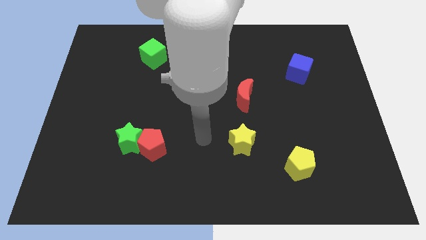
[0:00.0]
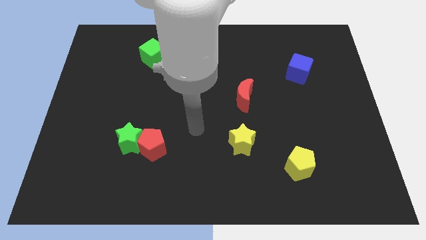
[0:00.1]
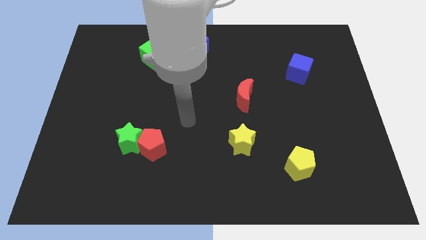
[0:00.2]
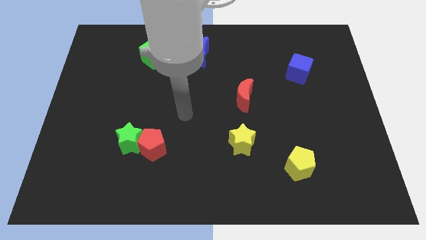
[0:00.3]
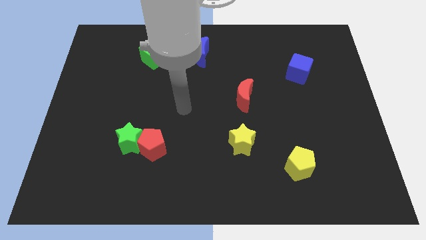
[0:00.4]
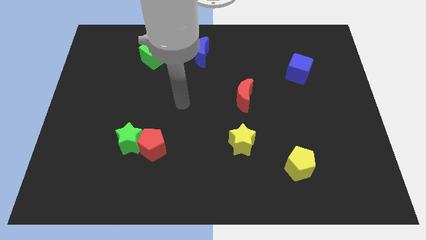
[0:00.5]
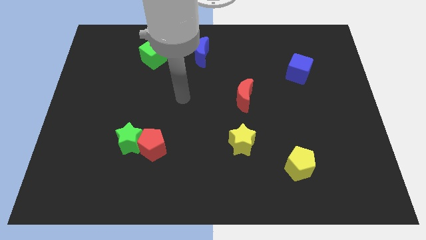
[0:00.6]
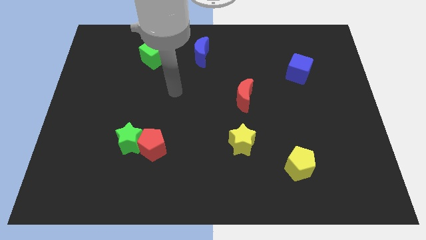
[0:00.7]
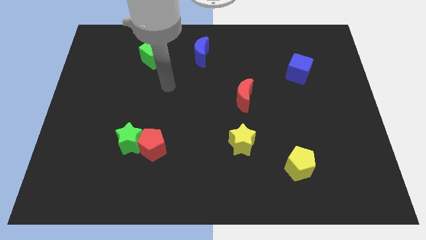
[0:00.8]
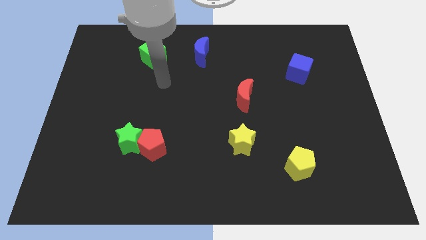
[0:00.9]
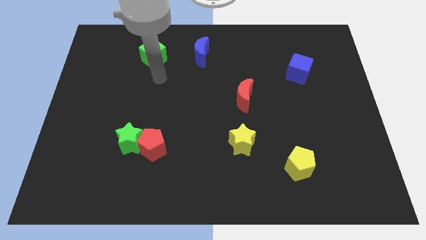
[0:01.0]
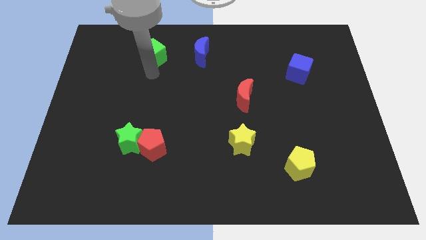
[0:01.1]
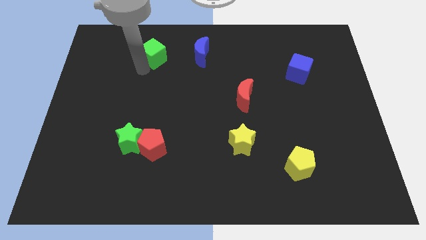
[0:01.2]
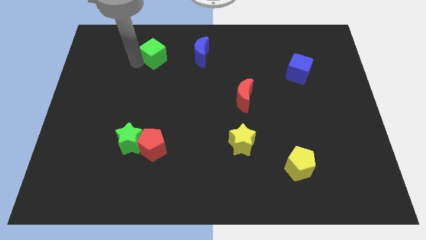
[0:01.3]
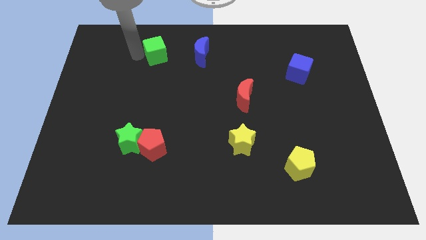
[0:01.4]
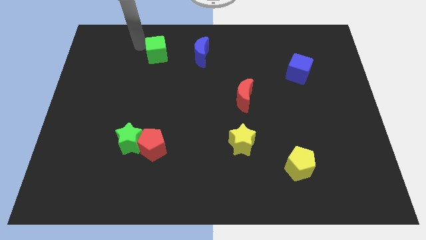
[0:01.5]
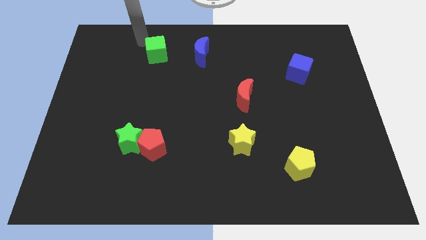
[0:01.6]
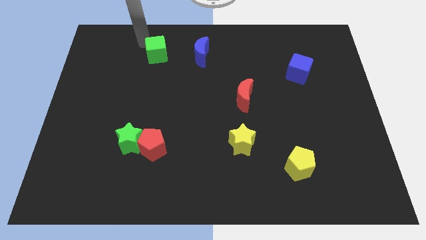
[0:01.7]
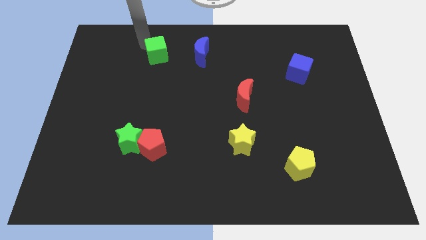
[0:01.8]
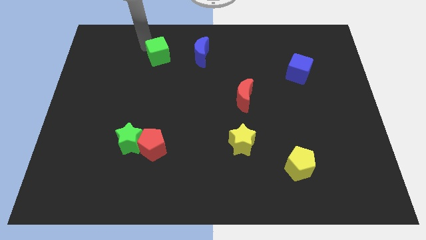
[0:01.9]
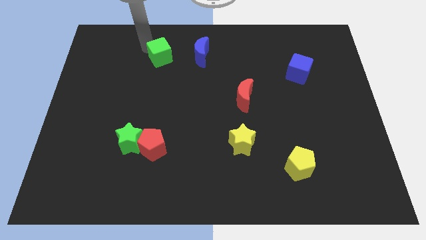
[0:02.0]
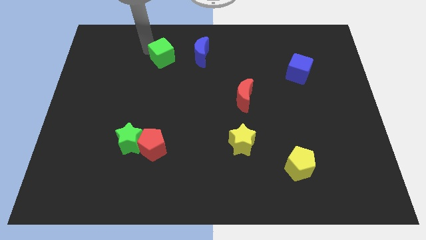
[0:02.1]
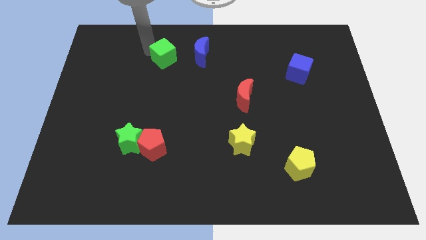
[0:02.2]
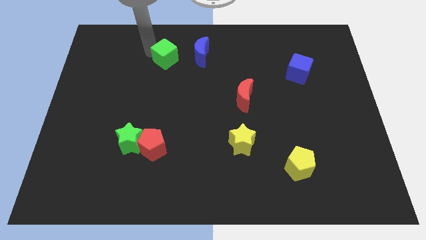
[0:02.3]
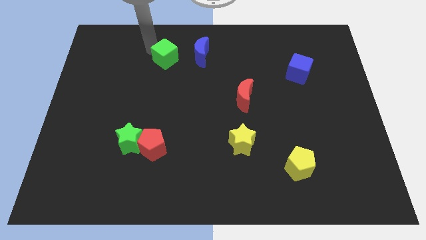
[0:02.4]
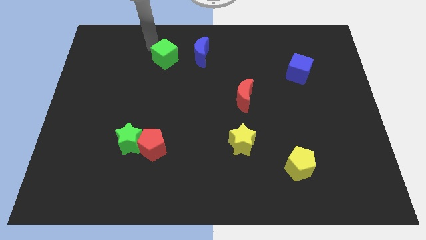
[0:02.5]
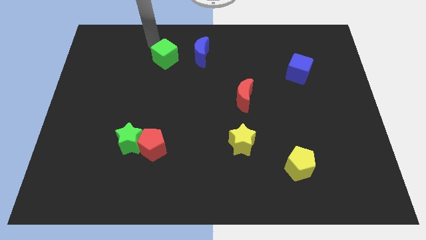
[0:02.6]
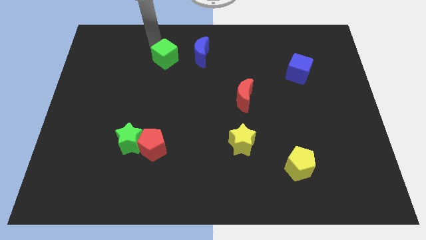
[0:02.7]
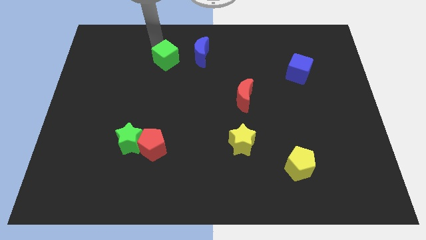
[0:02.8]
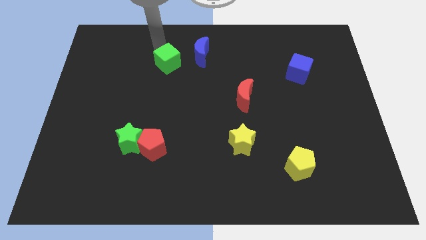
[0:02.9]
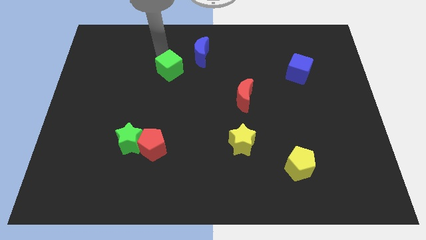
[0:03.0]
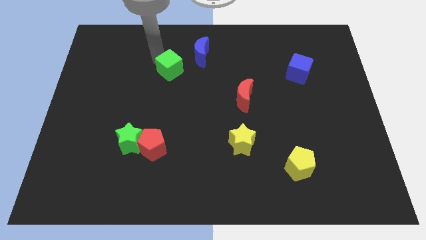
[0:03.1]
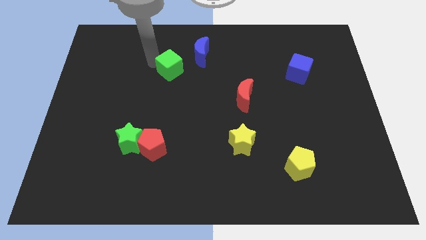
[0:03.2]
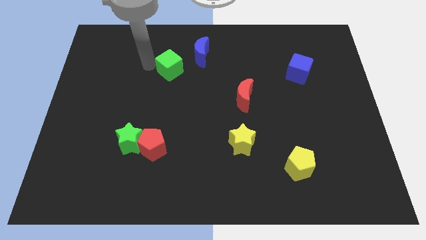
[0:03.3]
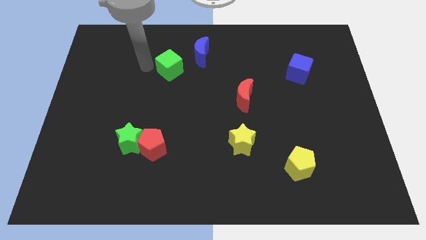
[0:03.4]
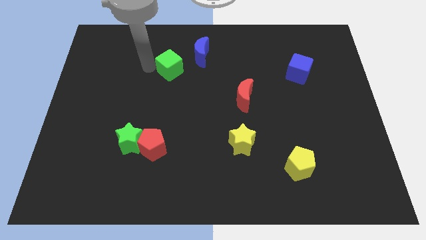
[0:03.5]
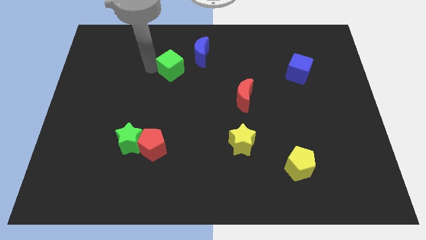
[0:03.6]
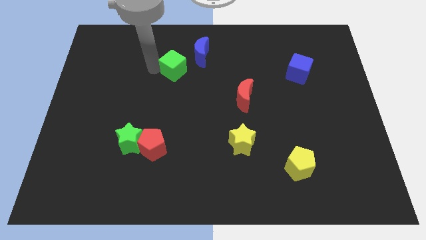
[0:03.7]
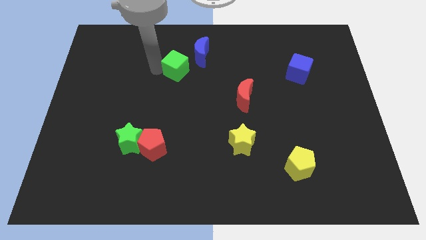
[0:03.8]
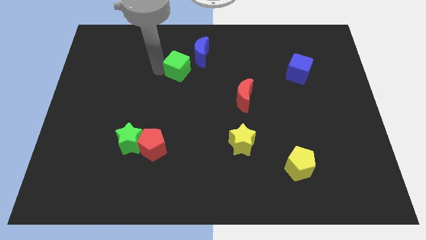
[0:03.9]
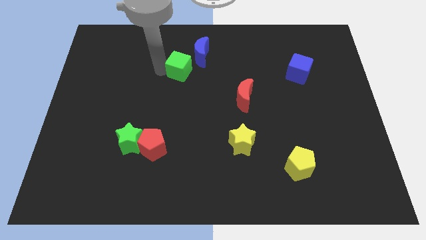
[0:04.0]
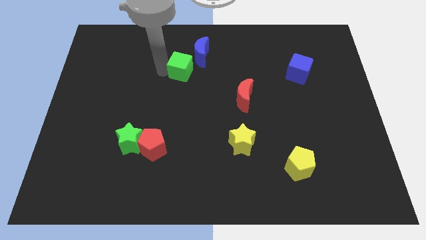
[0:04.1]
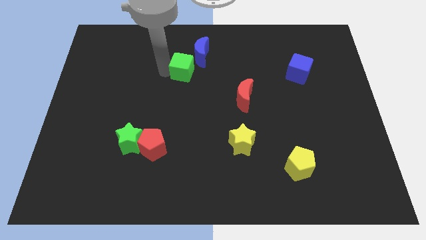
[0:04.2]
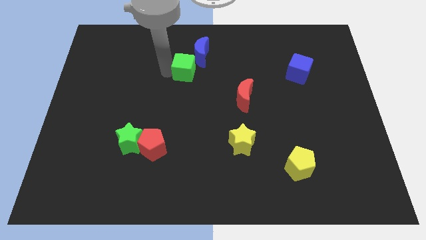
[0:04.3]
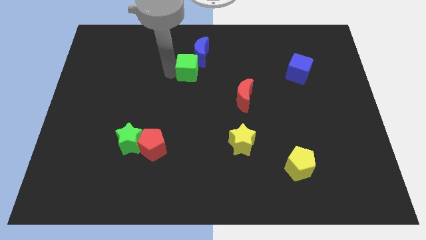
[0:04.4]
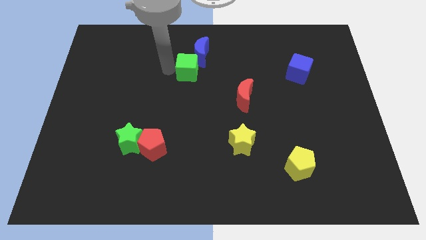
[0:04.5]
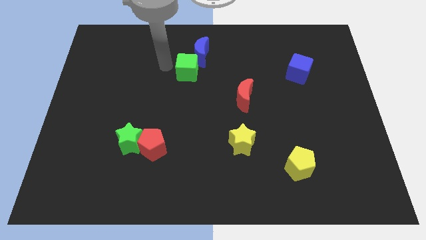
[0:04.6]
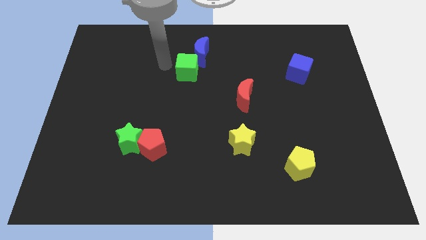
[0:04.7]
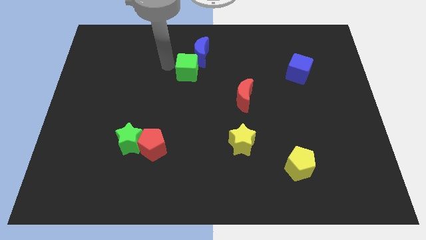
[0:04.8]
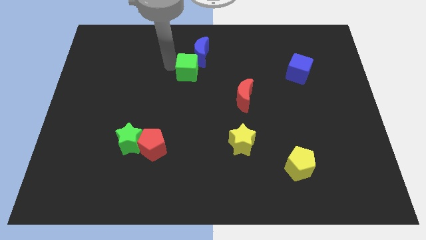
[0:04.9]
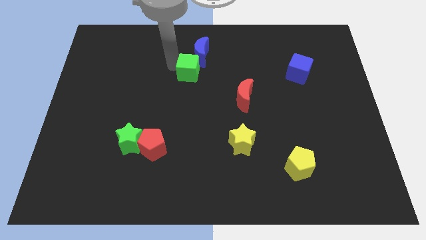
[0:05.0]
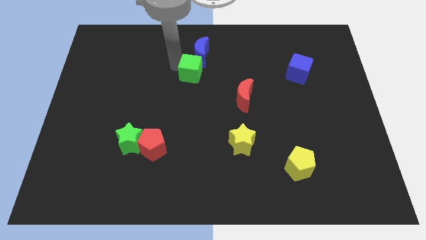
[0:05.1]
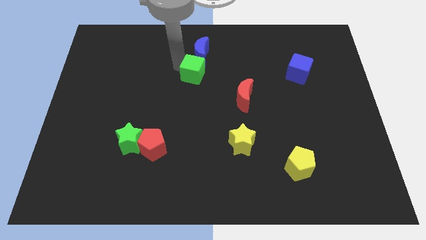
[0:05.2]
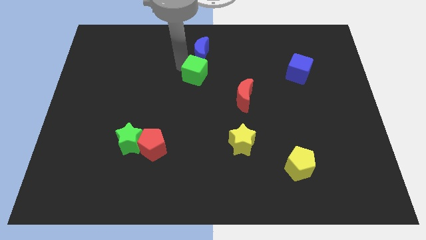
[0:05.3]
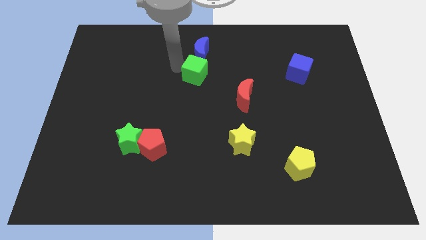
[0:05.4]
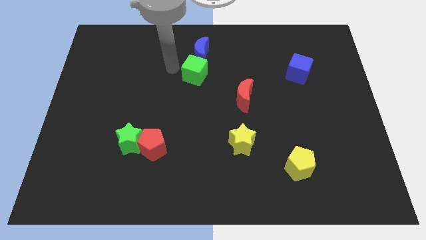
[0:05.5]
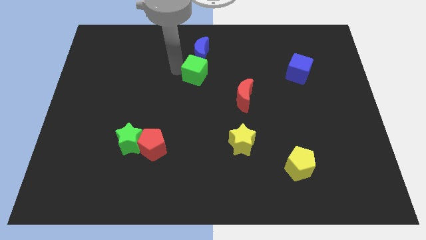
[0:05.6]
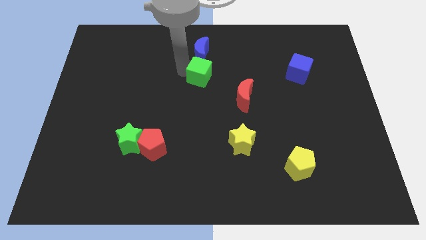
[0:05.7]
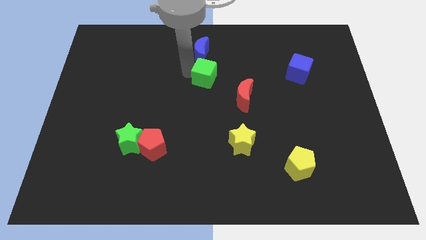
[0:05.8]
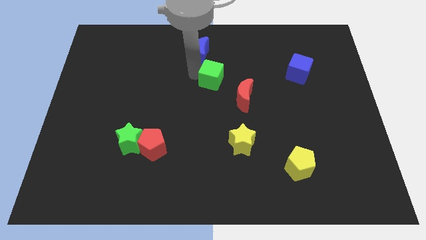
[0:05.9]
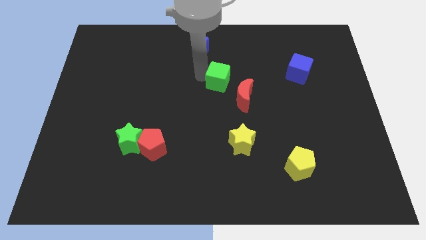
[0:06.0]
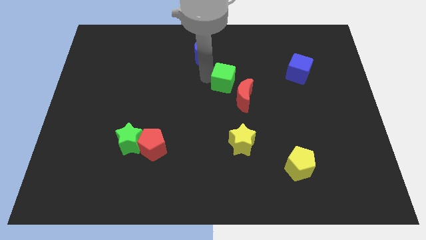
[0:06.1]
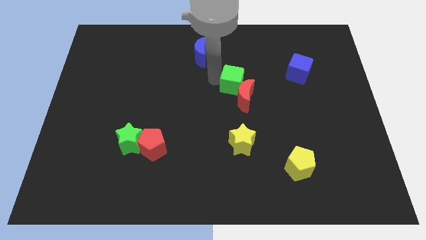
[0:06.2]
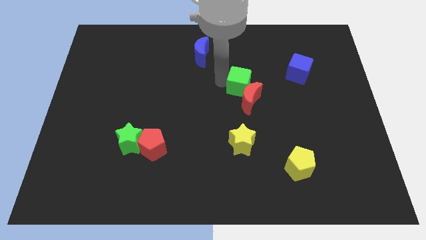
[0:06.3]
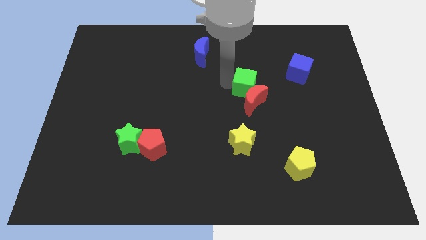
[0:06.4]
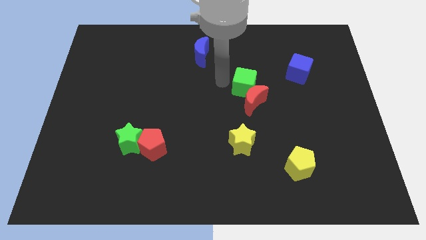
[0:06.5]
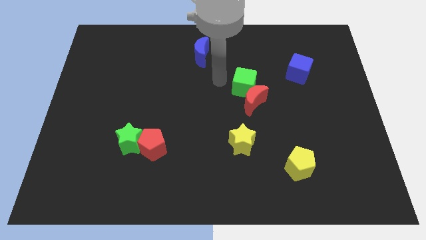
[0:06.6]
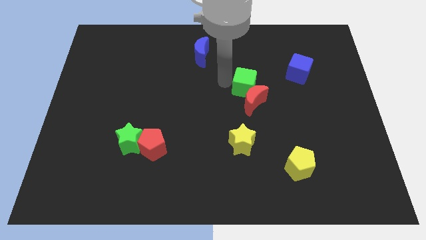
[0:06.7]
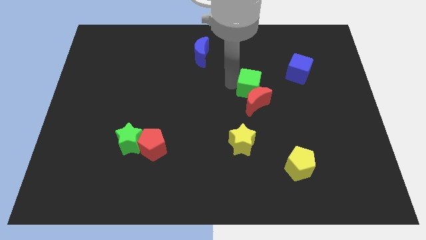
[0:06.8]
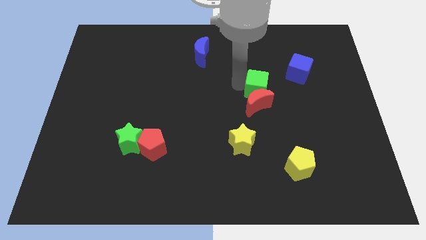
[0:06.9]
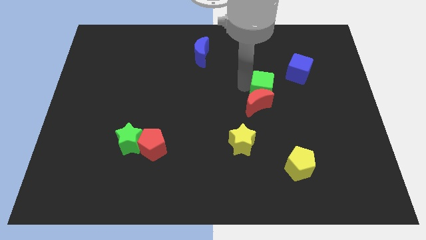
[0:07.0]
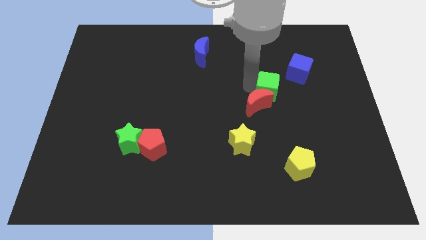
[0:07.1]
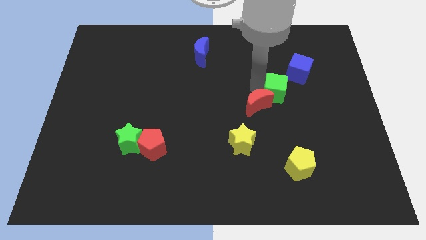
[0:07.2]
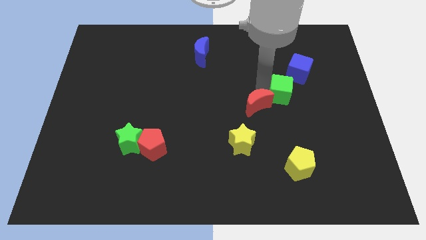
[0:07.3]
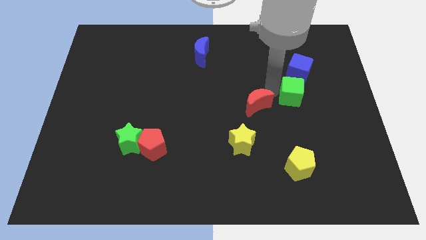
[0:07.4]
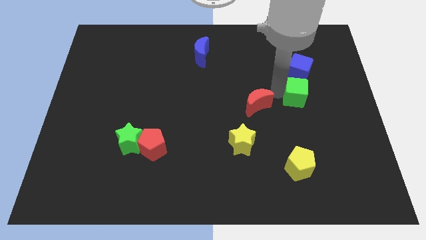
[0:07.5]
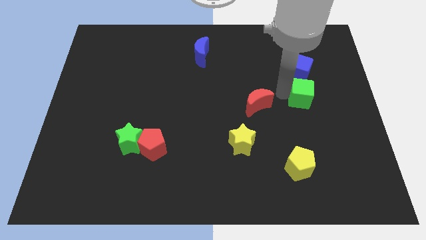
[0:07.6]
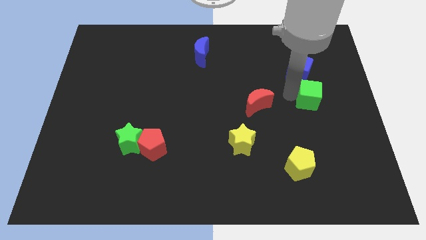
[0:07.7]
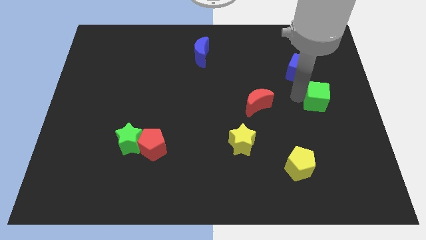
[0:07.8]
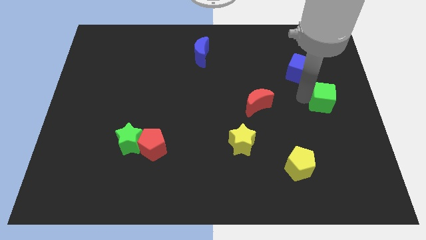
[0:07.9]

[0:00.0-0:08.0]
push the green cube to the right side of the board
